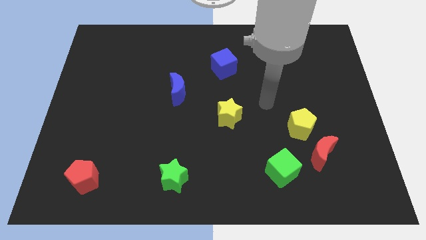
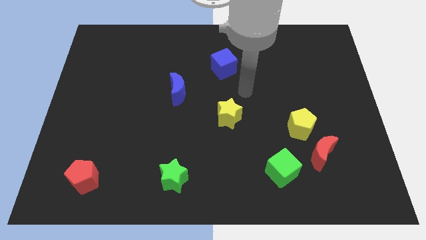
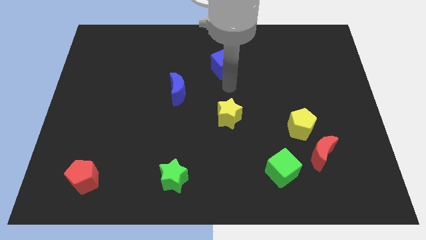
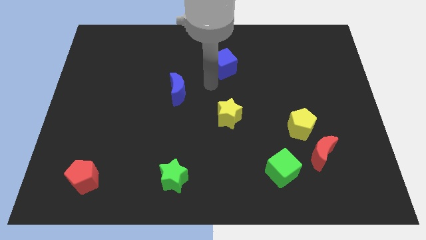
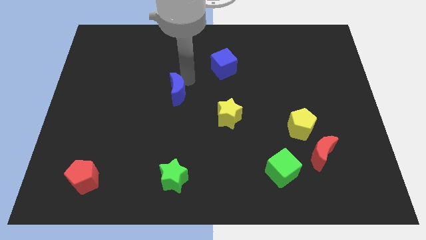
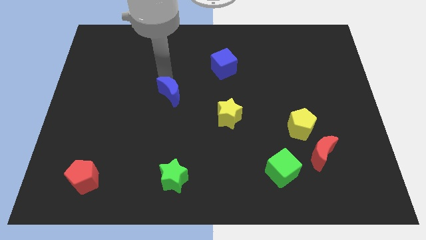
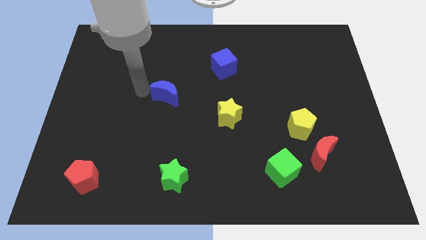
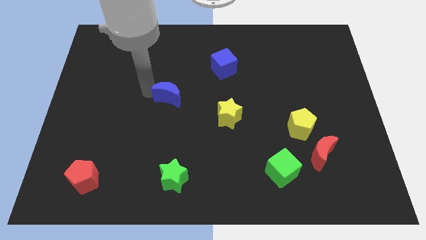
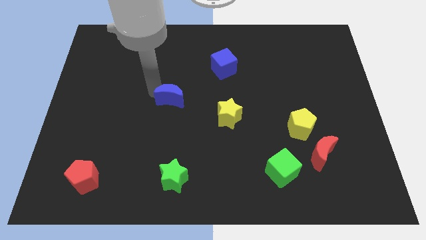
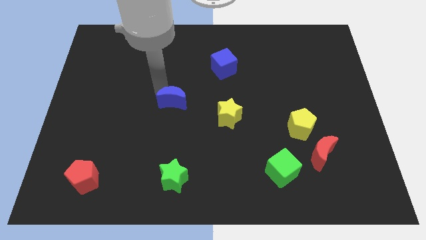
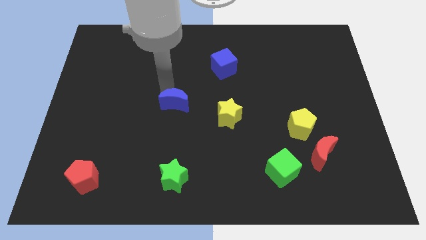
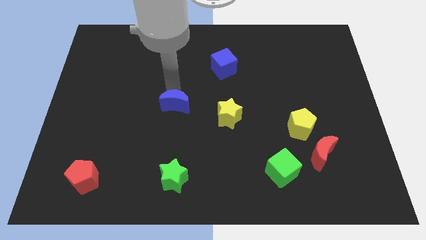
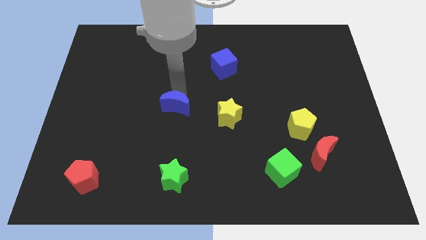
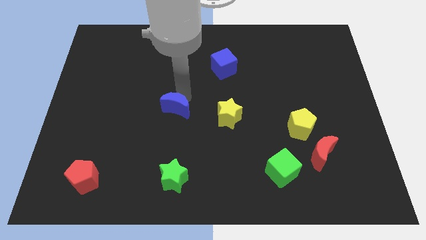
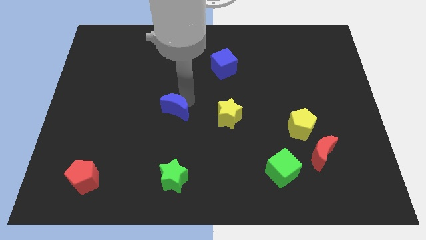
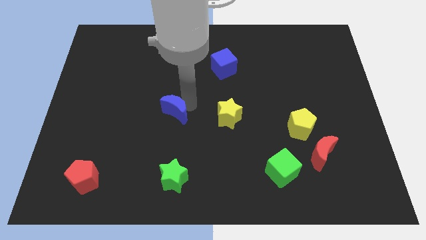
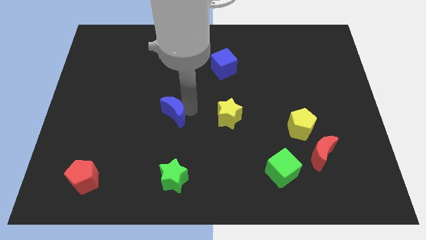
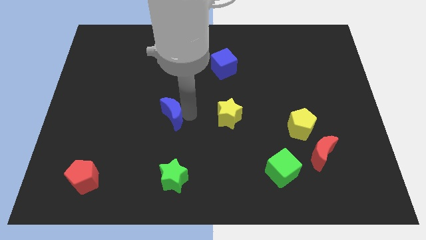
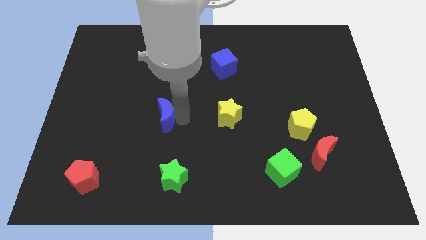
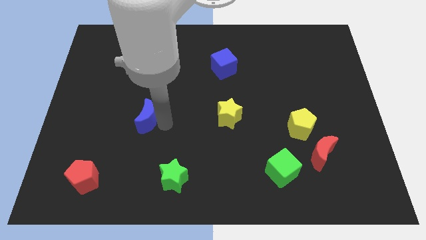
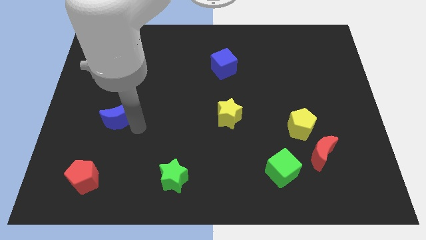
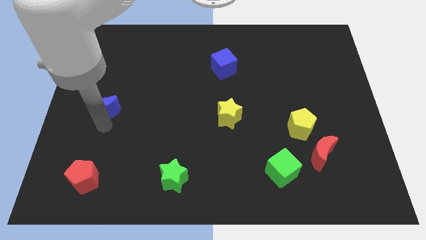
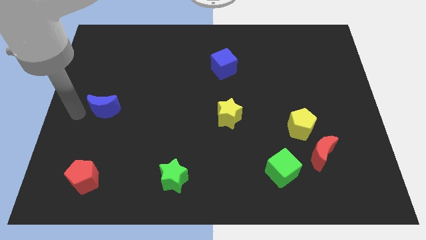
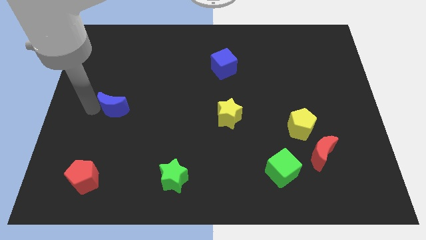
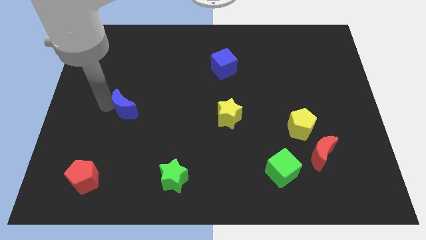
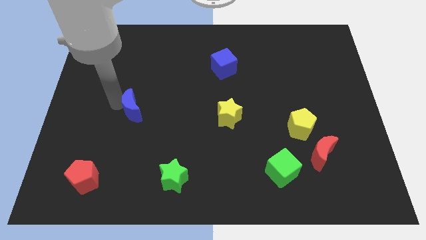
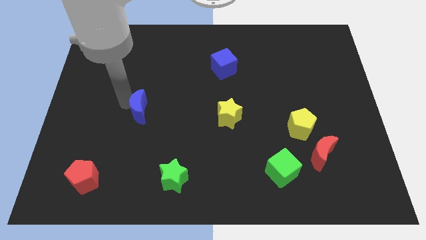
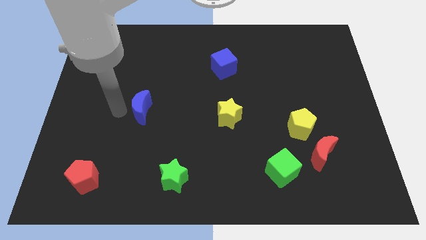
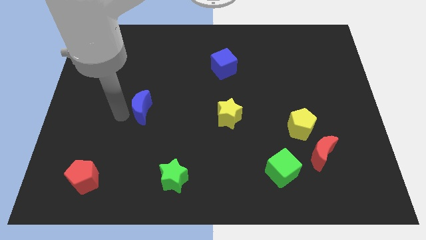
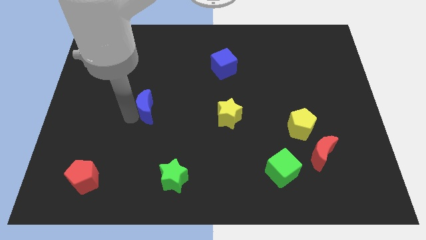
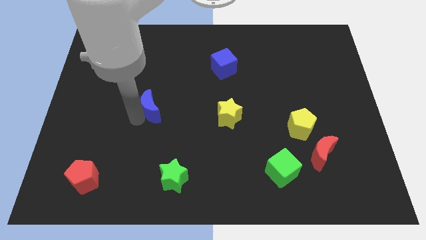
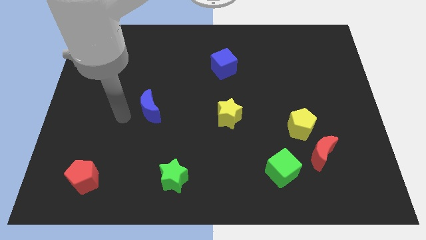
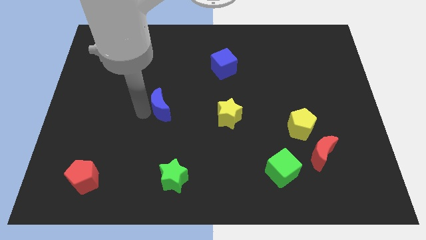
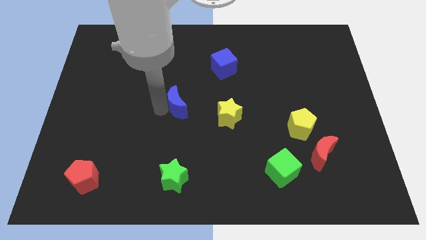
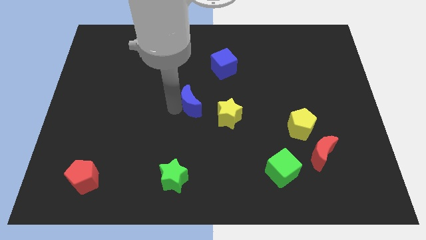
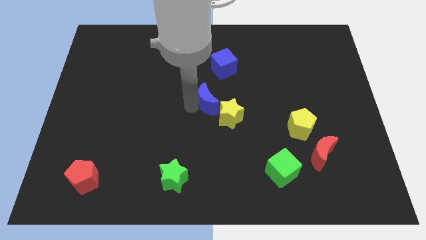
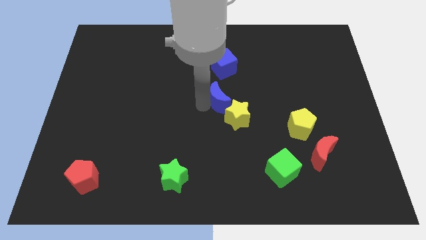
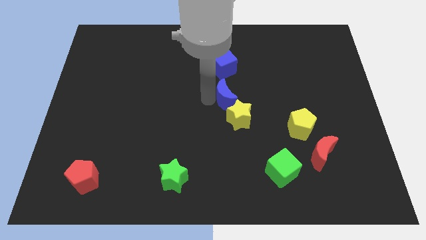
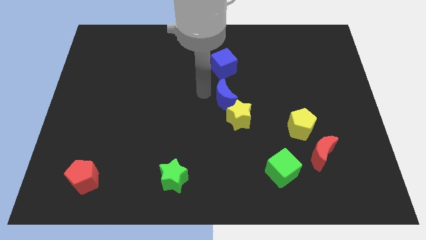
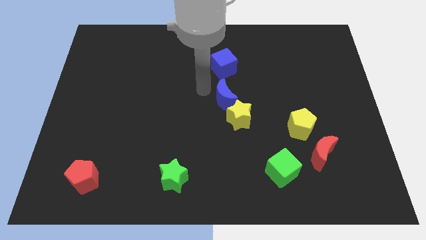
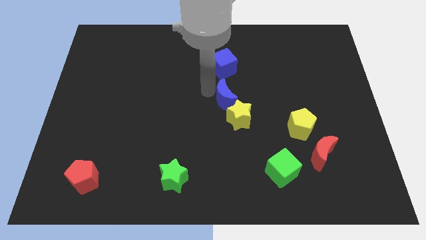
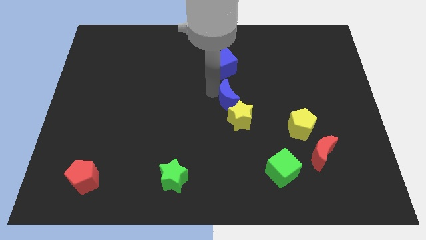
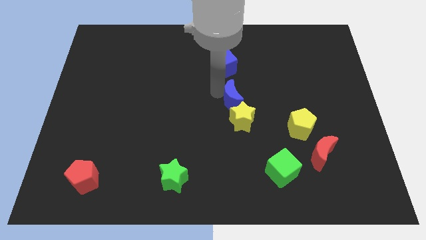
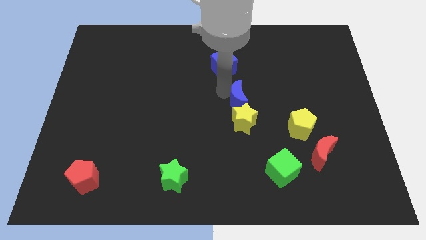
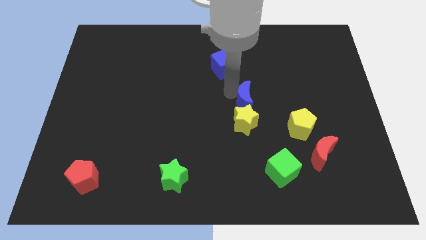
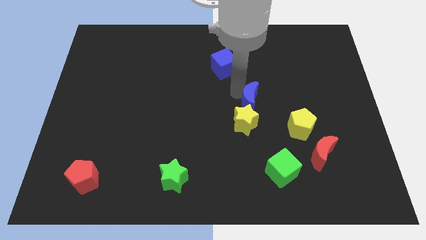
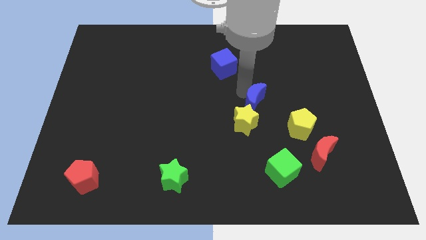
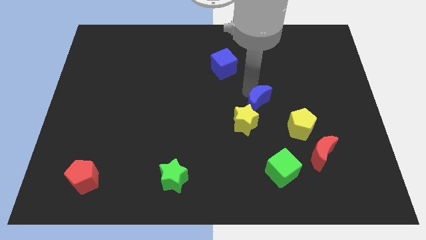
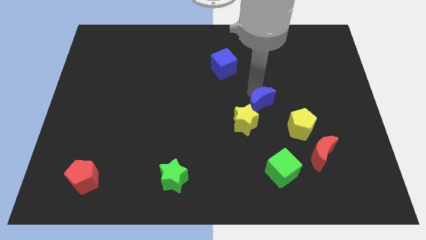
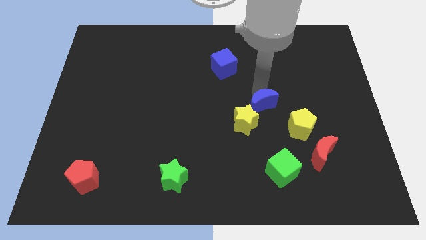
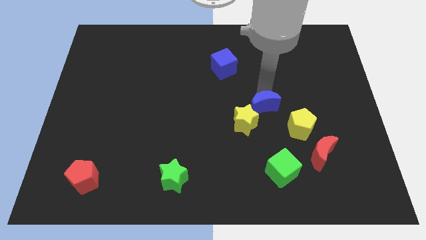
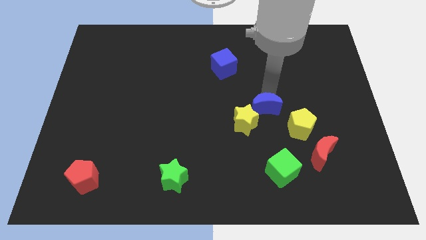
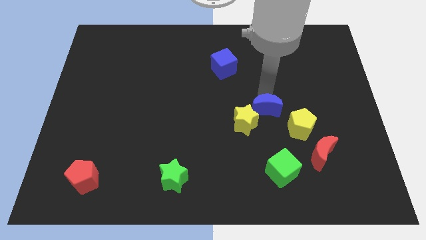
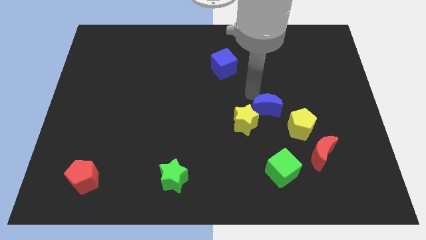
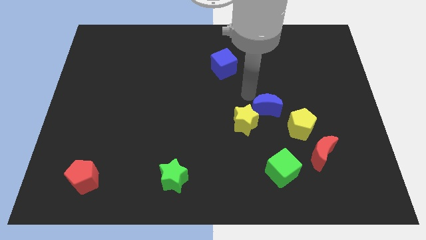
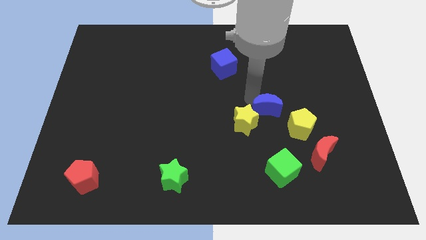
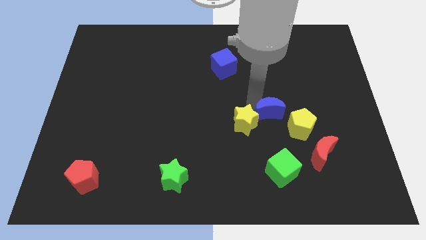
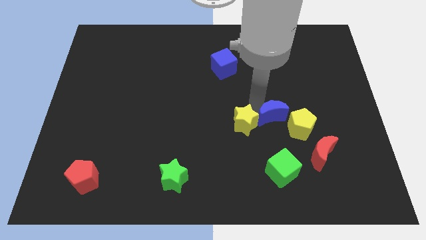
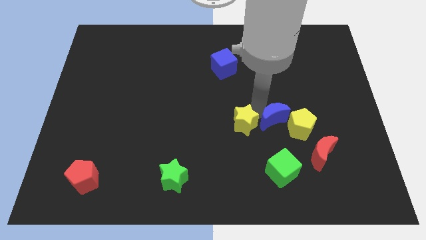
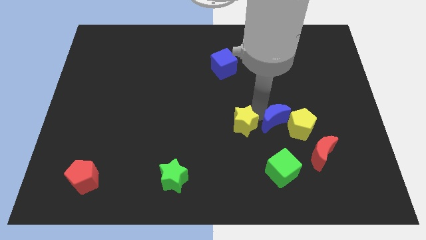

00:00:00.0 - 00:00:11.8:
move the blue moon next to the yellow pentagon

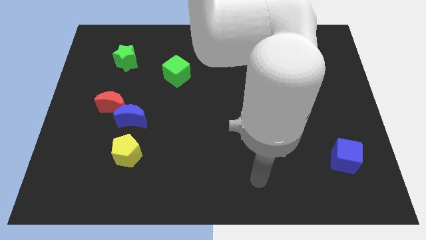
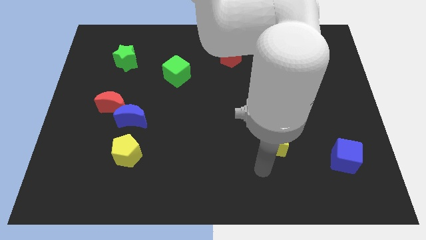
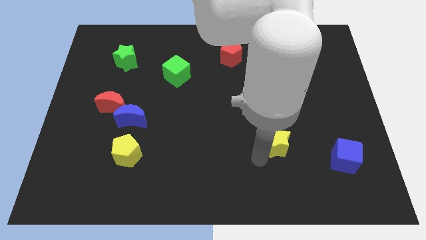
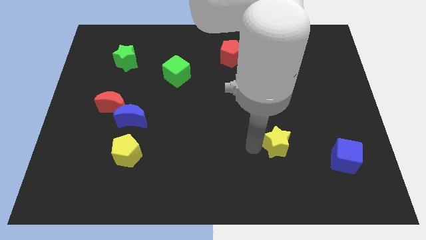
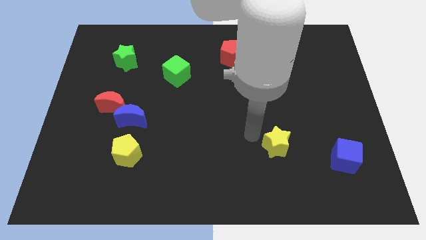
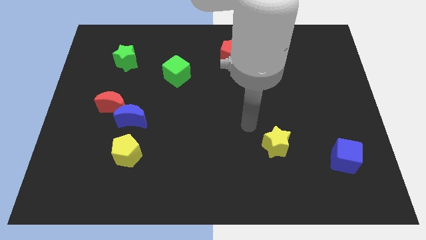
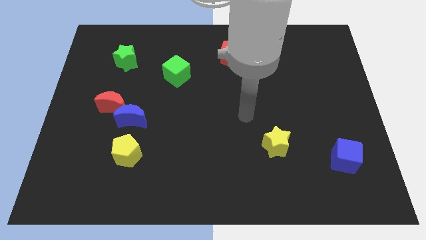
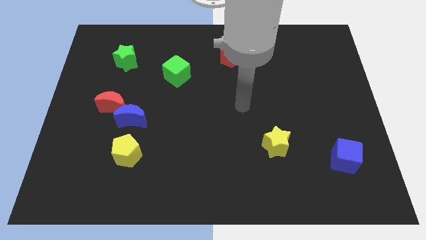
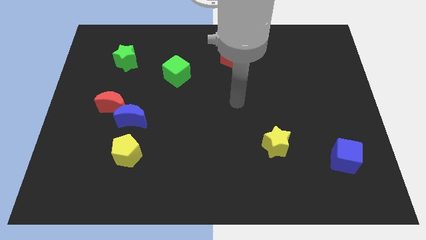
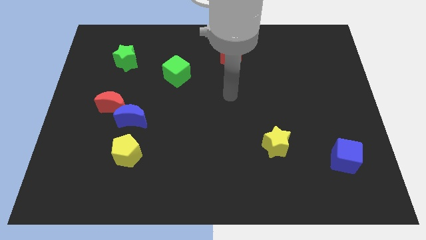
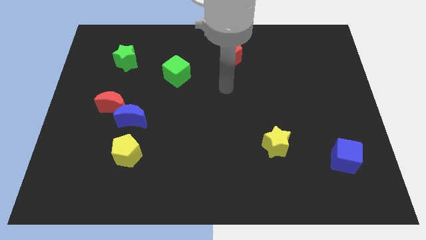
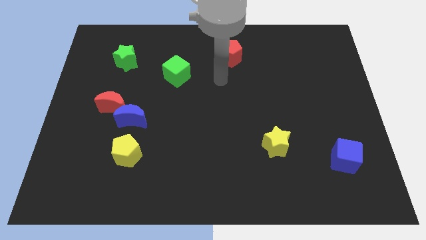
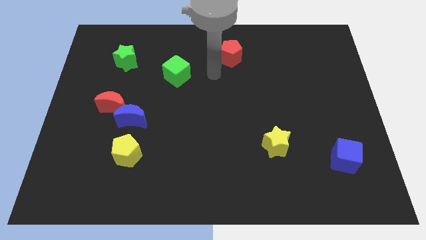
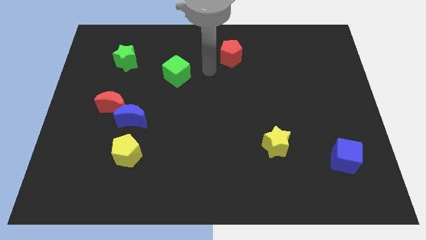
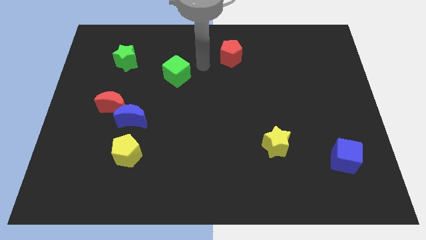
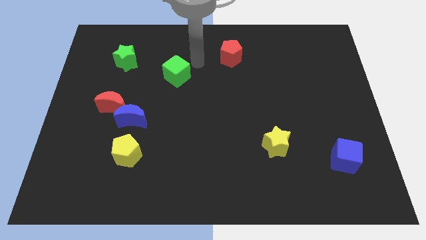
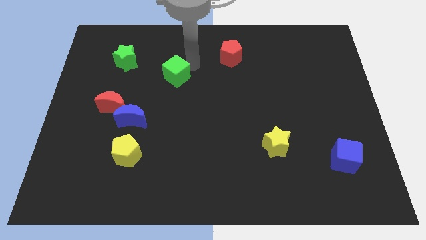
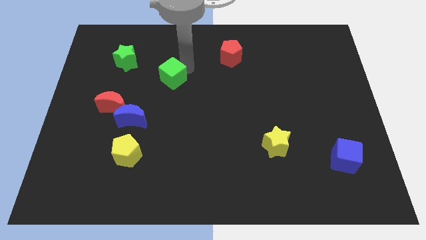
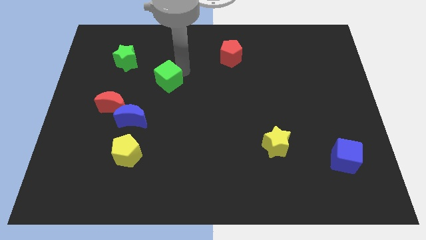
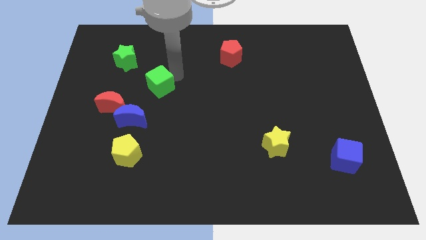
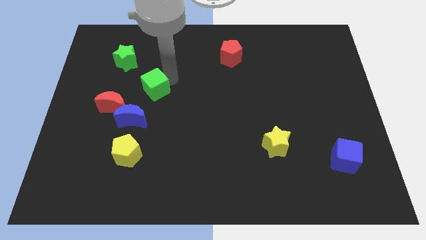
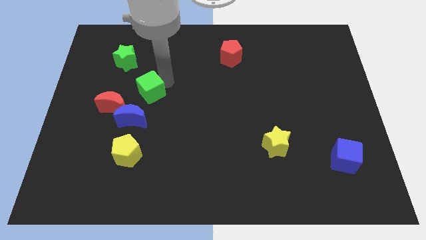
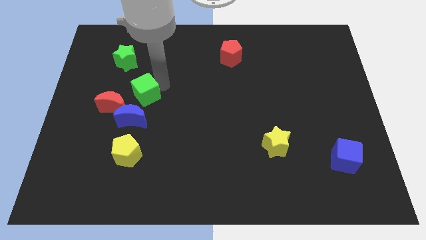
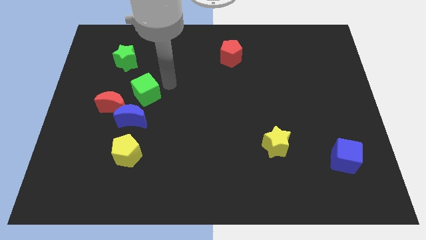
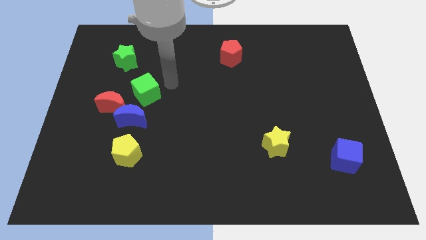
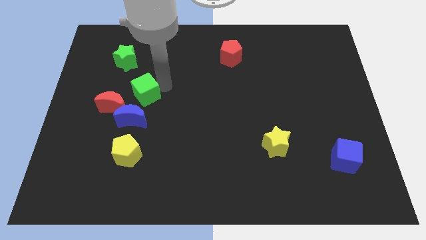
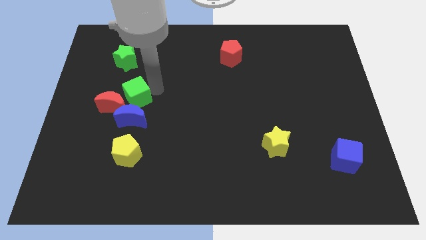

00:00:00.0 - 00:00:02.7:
put the green cube to the red moon
